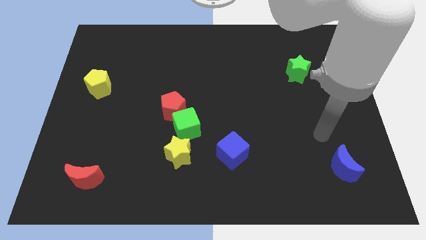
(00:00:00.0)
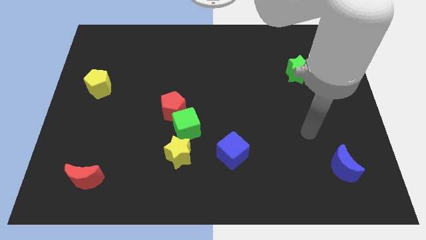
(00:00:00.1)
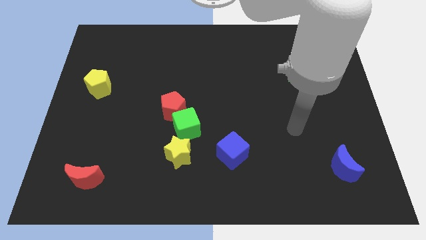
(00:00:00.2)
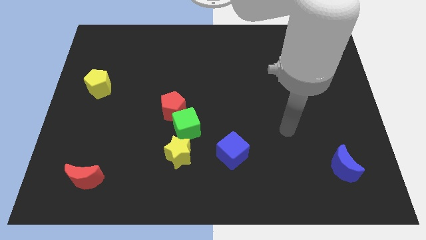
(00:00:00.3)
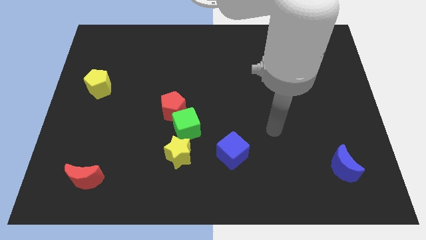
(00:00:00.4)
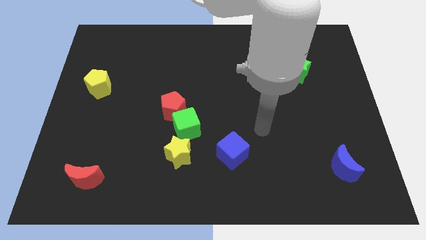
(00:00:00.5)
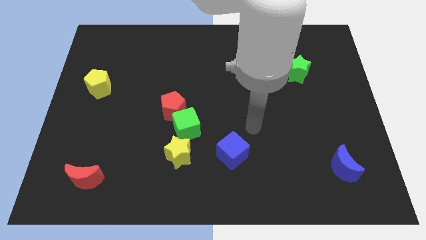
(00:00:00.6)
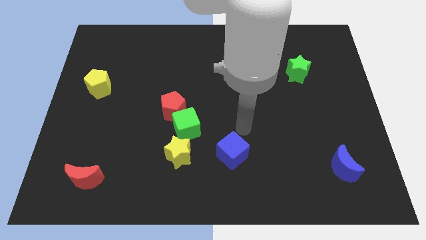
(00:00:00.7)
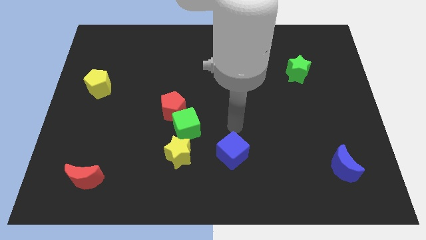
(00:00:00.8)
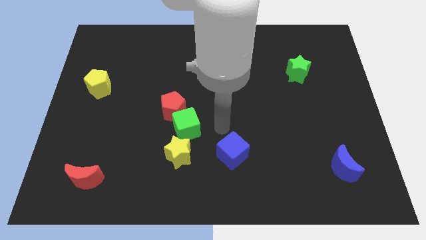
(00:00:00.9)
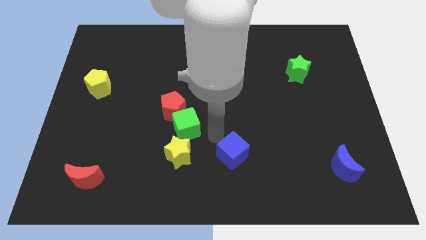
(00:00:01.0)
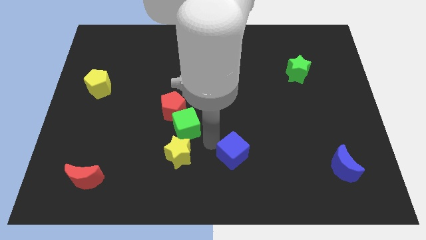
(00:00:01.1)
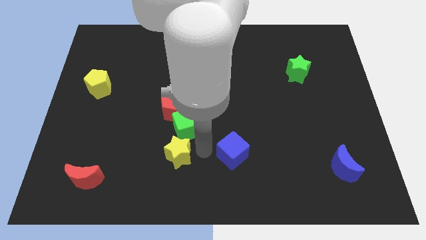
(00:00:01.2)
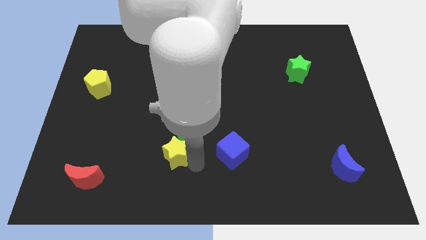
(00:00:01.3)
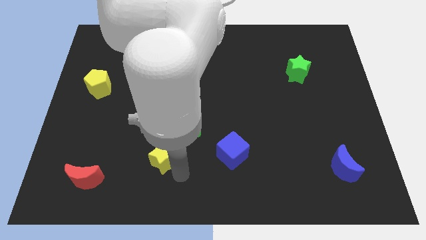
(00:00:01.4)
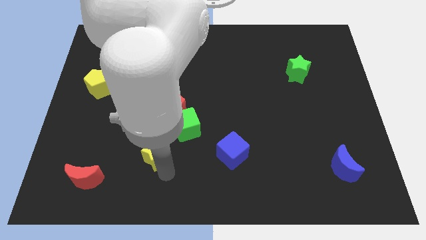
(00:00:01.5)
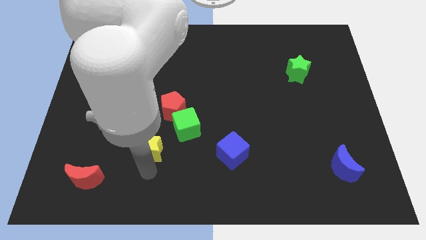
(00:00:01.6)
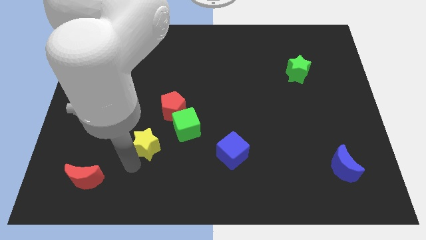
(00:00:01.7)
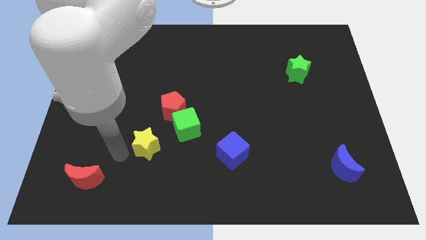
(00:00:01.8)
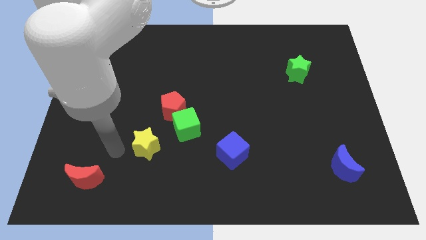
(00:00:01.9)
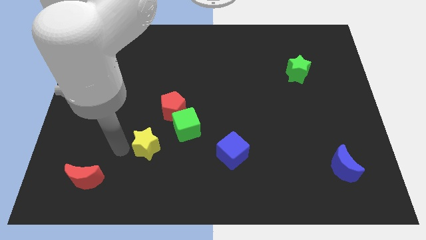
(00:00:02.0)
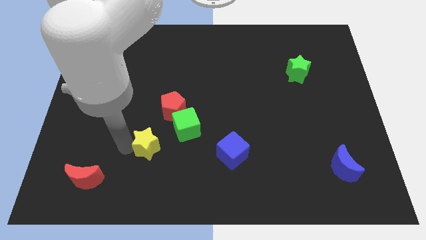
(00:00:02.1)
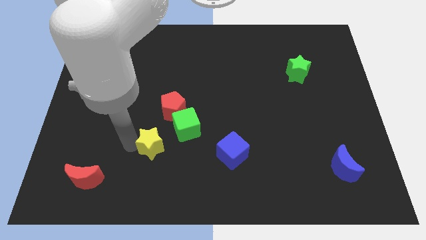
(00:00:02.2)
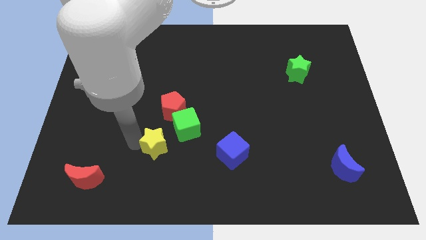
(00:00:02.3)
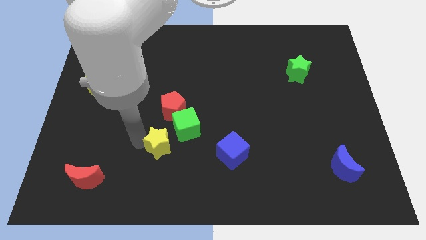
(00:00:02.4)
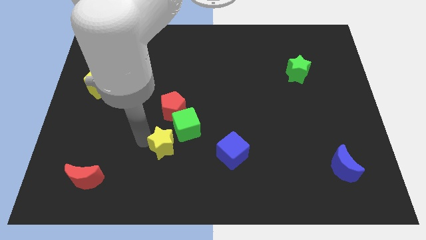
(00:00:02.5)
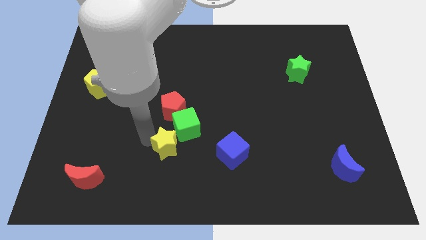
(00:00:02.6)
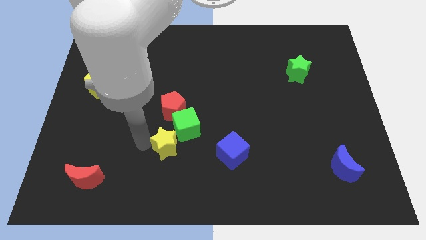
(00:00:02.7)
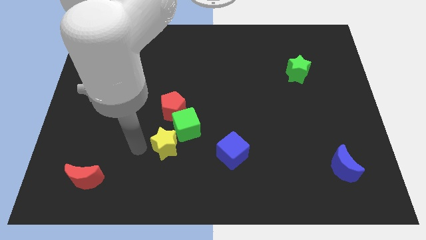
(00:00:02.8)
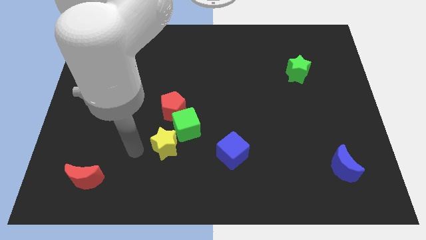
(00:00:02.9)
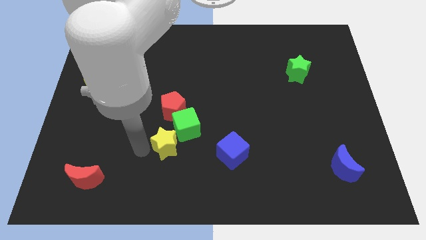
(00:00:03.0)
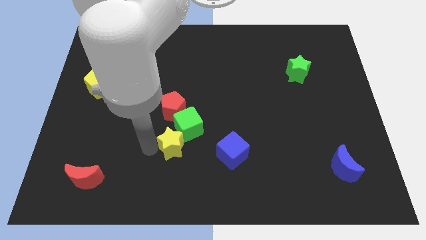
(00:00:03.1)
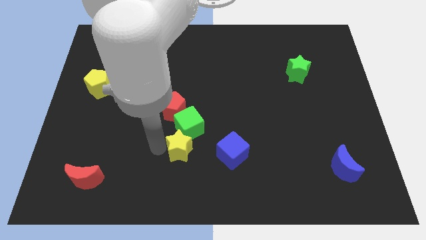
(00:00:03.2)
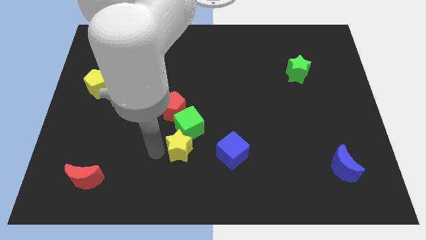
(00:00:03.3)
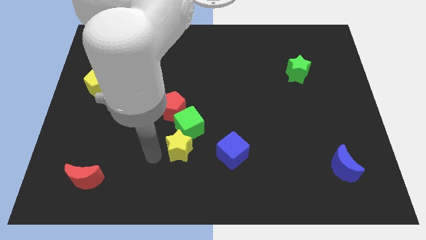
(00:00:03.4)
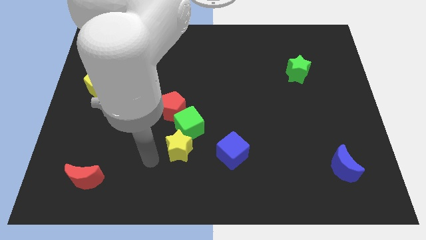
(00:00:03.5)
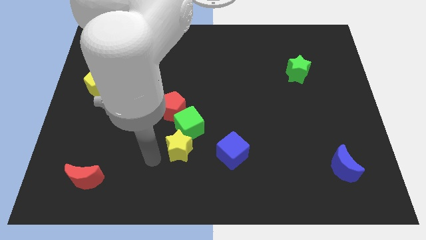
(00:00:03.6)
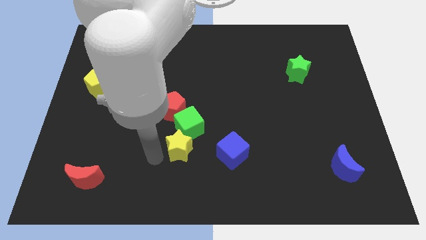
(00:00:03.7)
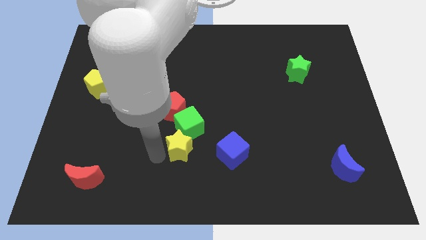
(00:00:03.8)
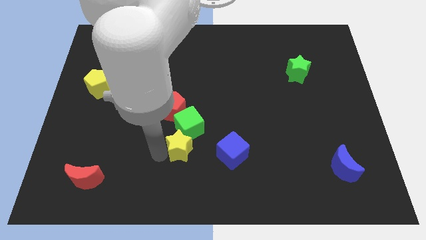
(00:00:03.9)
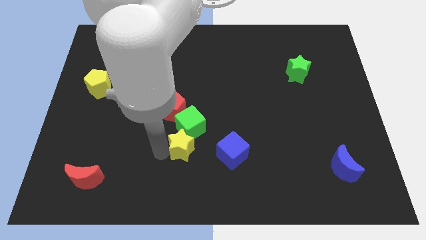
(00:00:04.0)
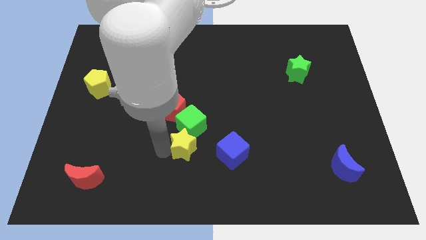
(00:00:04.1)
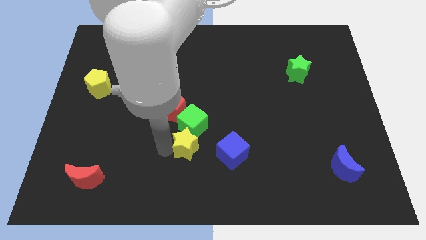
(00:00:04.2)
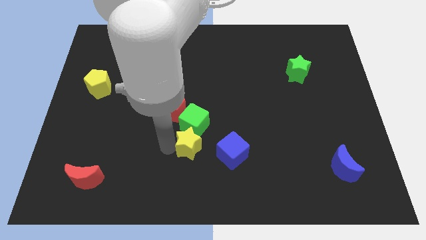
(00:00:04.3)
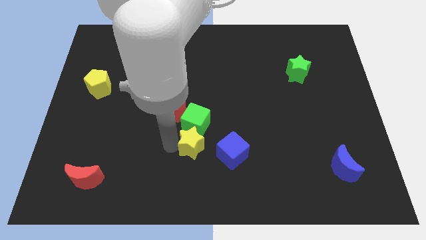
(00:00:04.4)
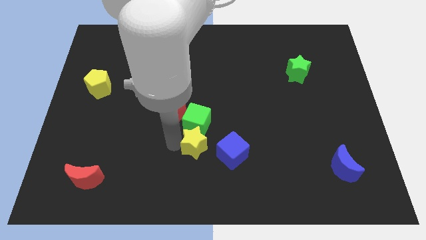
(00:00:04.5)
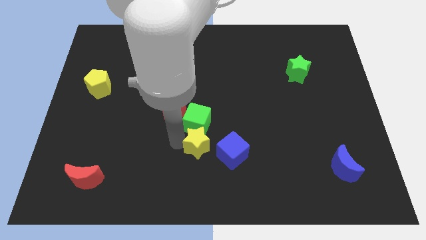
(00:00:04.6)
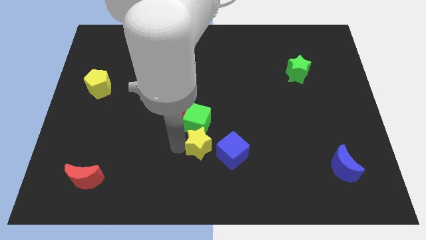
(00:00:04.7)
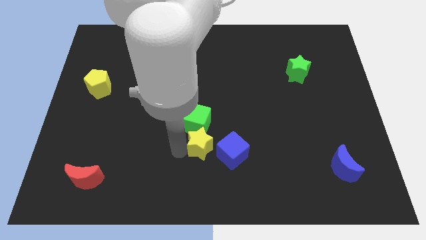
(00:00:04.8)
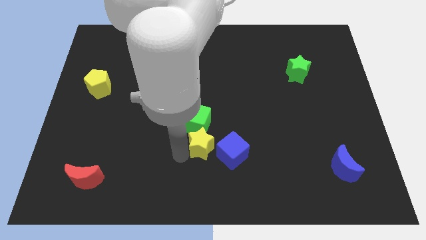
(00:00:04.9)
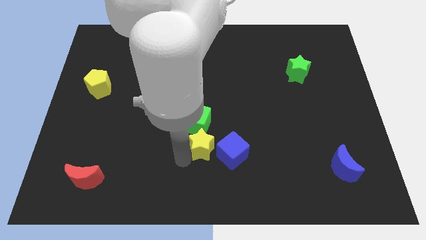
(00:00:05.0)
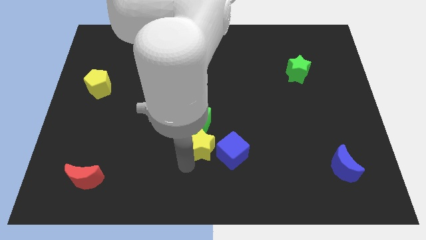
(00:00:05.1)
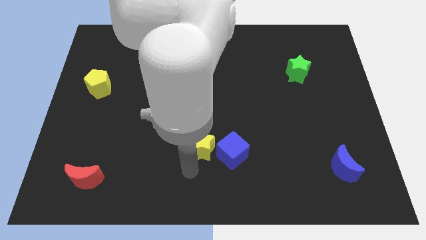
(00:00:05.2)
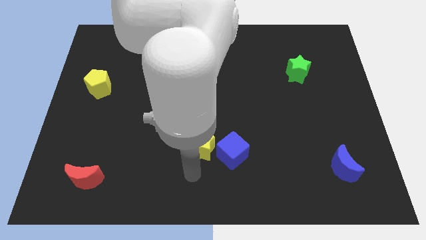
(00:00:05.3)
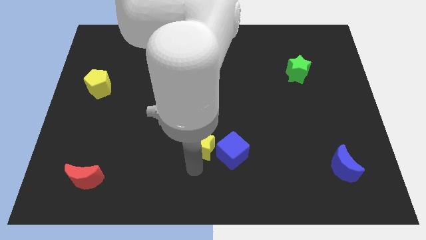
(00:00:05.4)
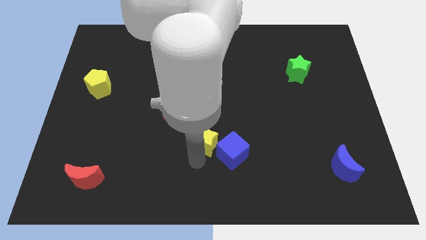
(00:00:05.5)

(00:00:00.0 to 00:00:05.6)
move the yellow star to the center of the board
